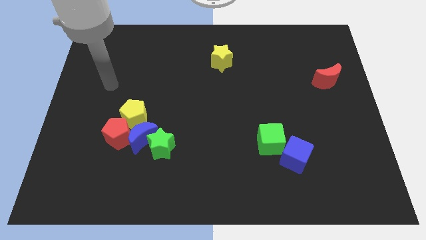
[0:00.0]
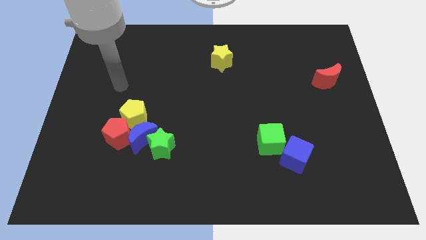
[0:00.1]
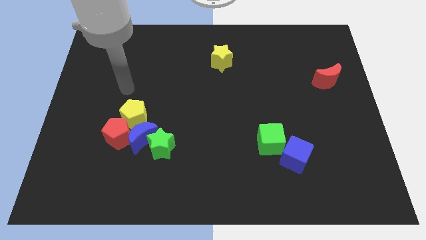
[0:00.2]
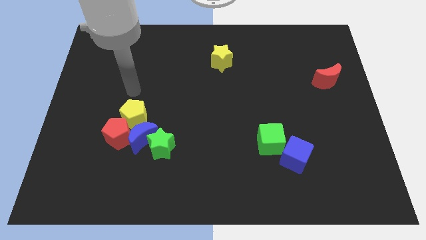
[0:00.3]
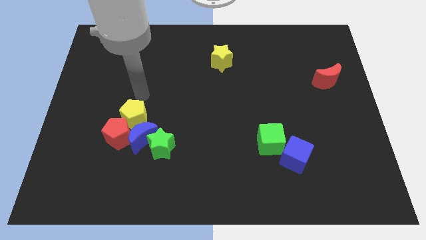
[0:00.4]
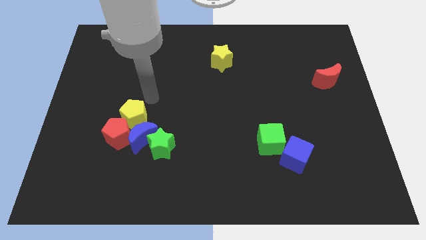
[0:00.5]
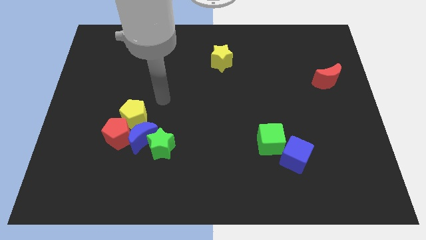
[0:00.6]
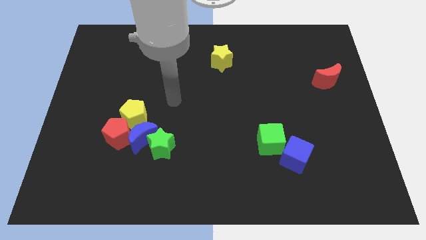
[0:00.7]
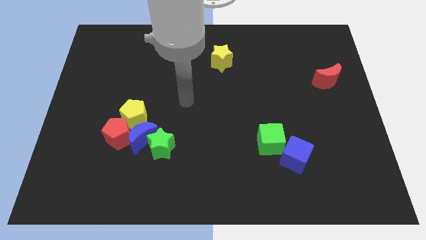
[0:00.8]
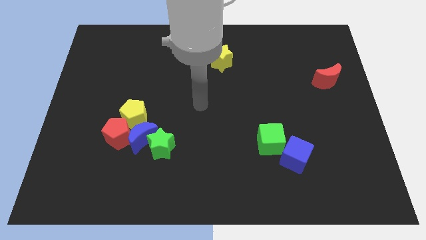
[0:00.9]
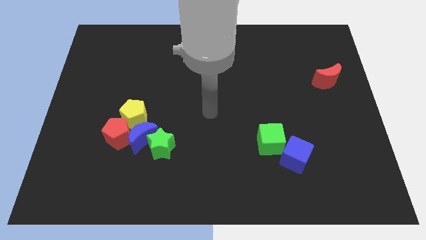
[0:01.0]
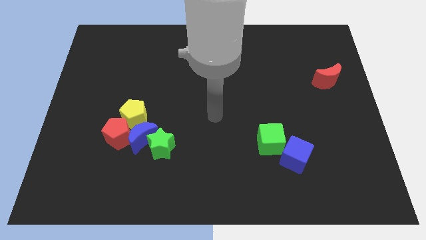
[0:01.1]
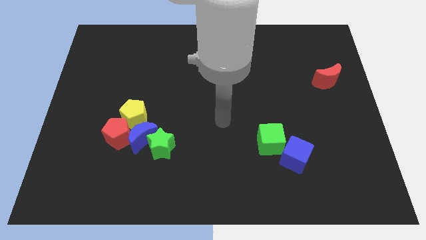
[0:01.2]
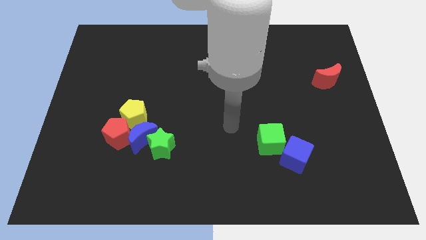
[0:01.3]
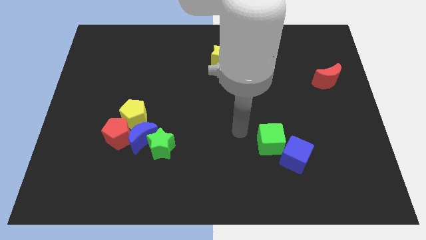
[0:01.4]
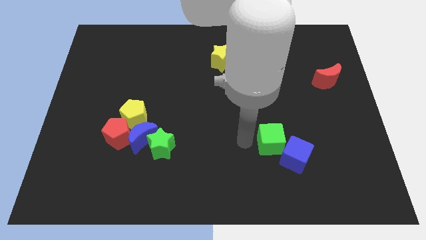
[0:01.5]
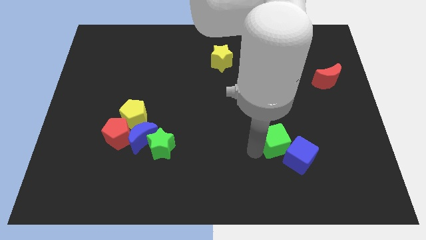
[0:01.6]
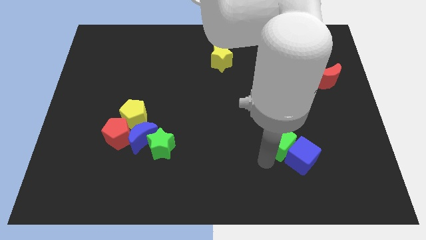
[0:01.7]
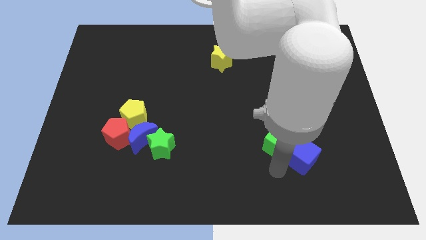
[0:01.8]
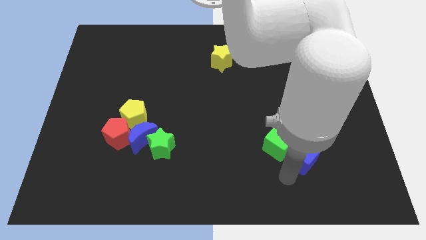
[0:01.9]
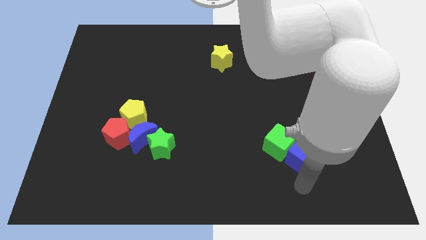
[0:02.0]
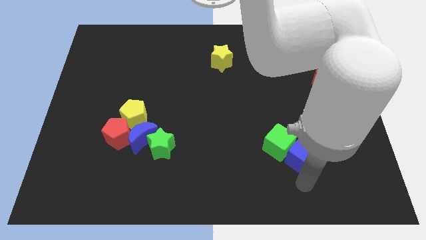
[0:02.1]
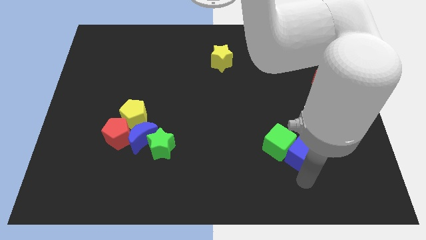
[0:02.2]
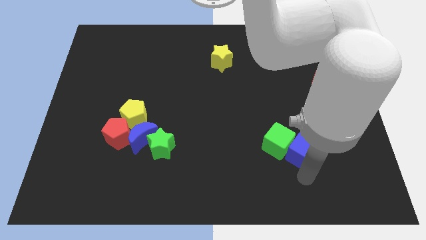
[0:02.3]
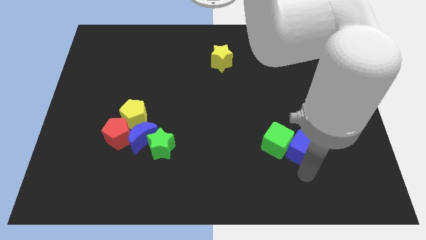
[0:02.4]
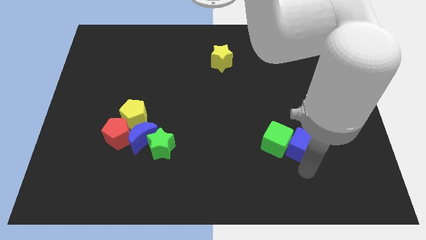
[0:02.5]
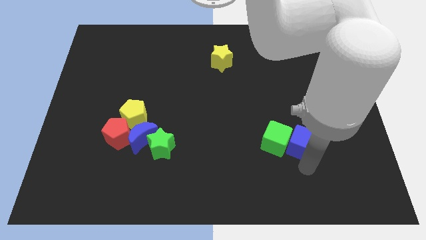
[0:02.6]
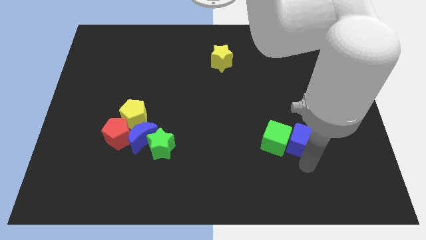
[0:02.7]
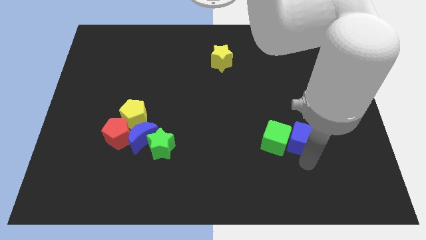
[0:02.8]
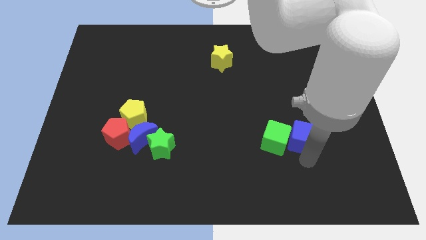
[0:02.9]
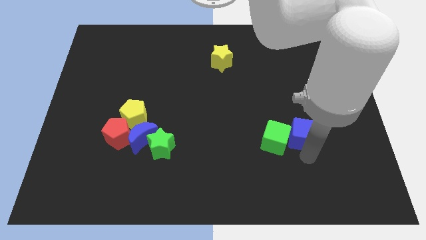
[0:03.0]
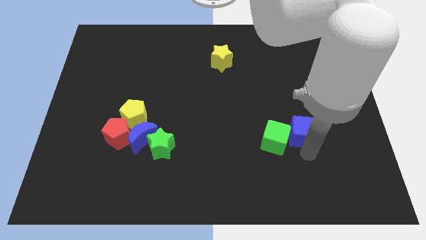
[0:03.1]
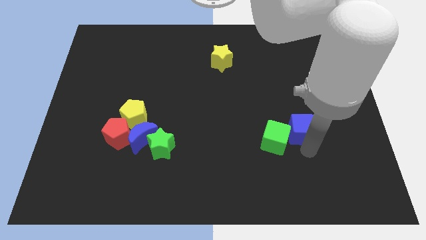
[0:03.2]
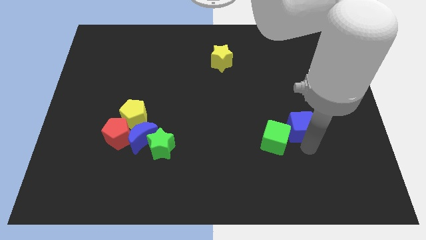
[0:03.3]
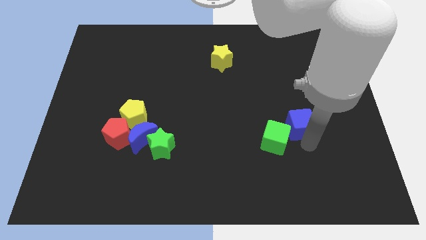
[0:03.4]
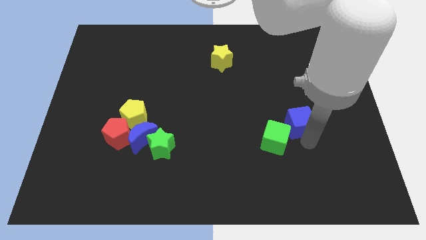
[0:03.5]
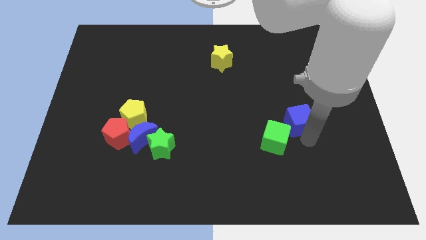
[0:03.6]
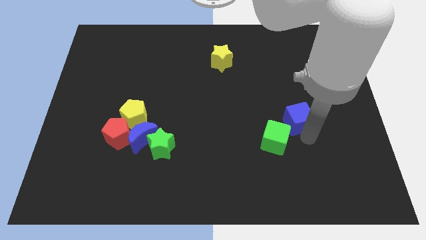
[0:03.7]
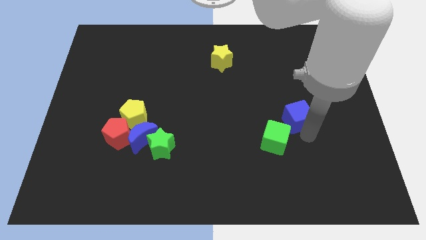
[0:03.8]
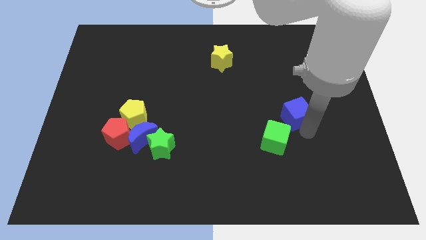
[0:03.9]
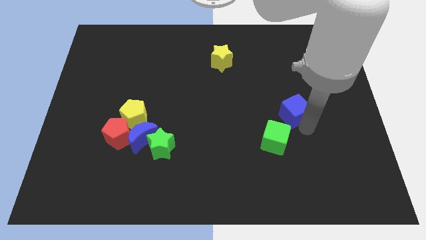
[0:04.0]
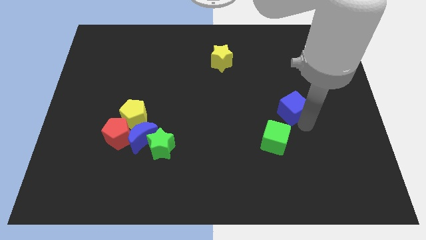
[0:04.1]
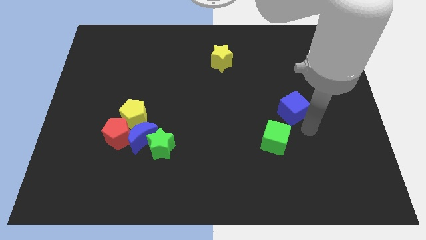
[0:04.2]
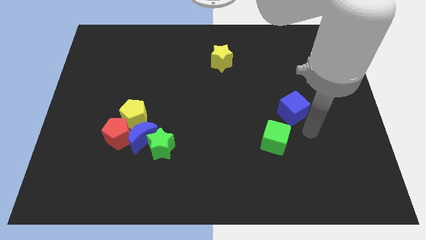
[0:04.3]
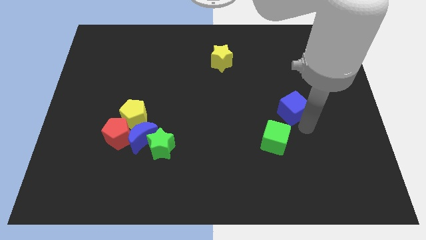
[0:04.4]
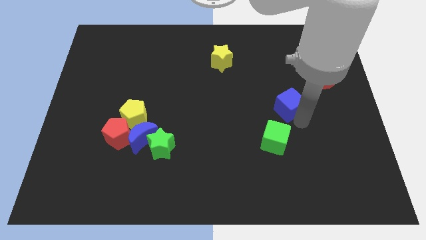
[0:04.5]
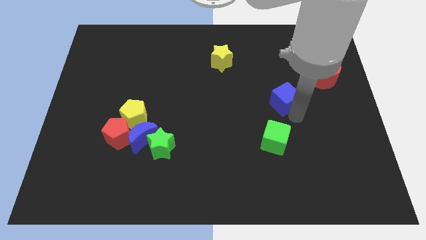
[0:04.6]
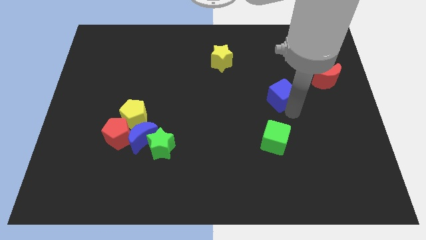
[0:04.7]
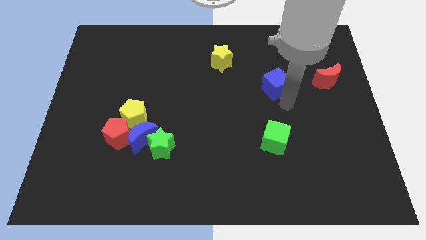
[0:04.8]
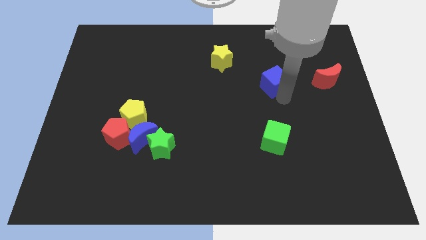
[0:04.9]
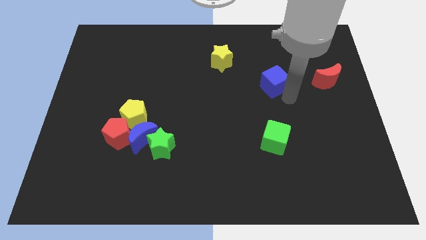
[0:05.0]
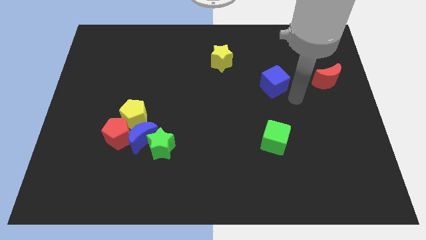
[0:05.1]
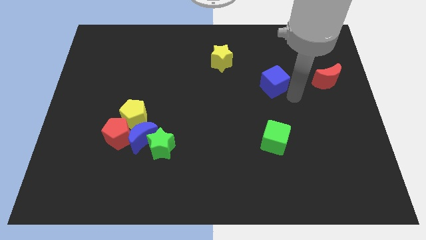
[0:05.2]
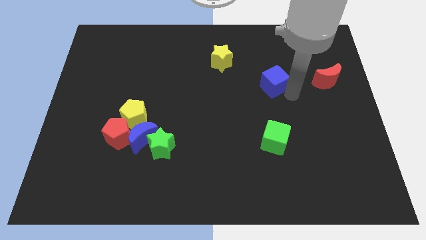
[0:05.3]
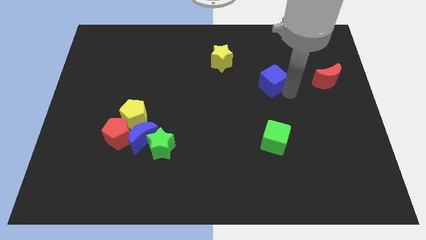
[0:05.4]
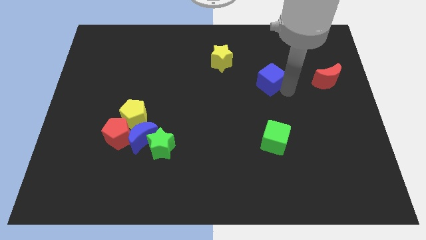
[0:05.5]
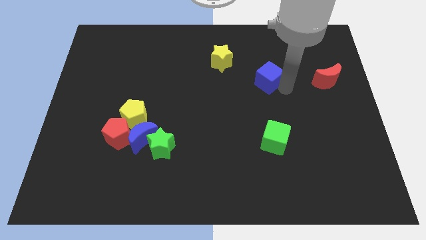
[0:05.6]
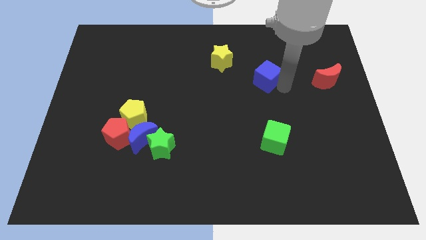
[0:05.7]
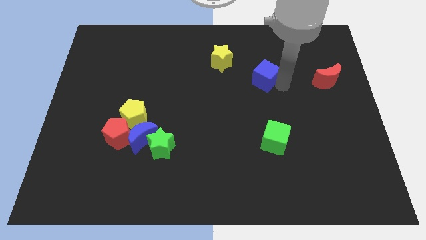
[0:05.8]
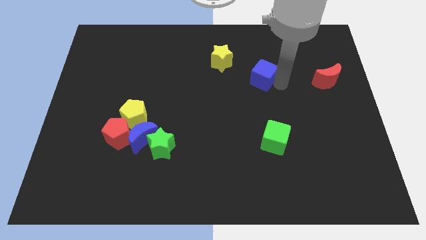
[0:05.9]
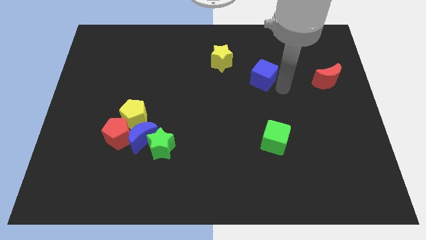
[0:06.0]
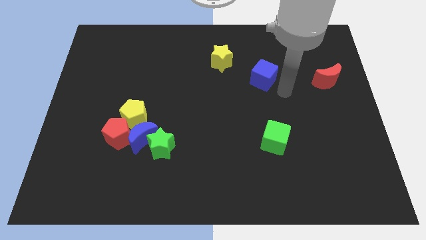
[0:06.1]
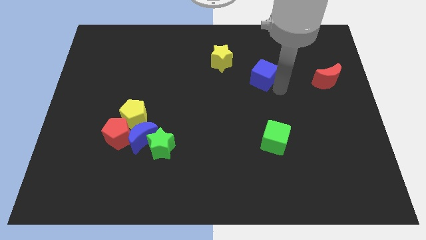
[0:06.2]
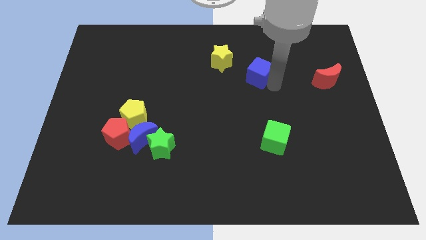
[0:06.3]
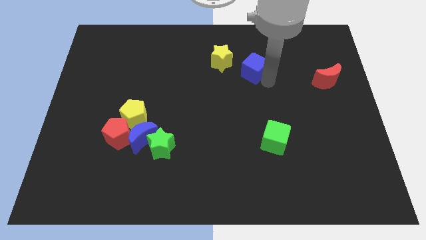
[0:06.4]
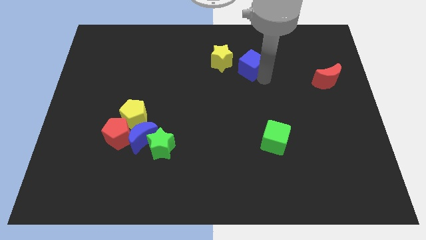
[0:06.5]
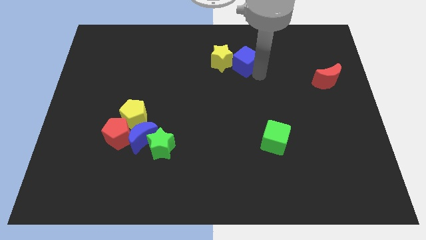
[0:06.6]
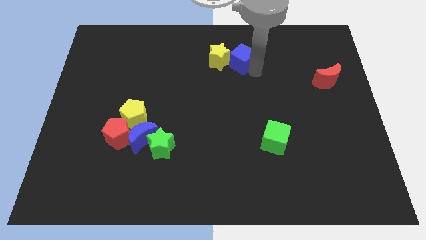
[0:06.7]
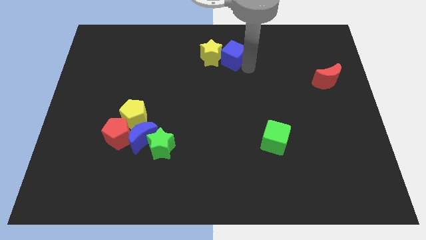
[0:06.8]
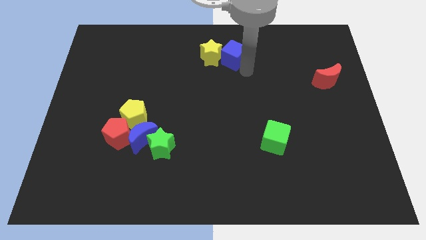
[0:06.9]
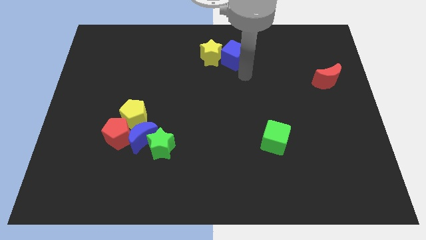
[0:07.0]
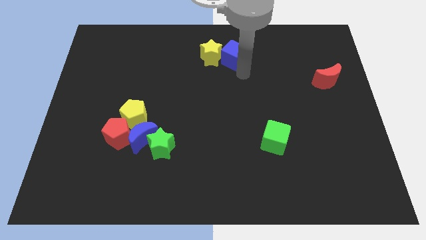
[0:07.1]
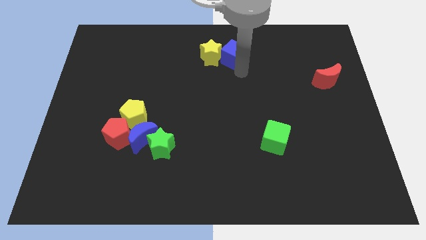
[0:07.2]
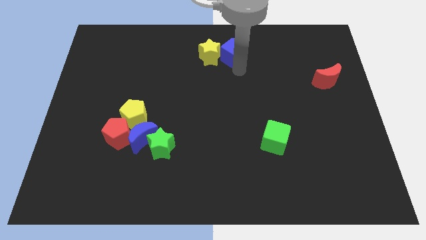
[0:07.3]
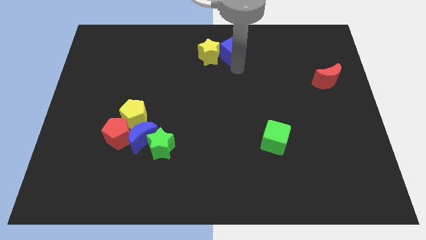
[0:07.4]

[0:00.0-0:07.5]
move the blue cube to the towards your base

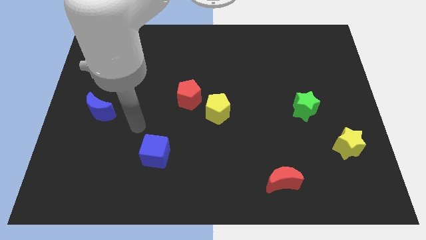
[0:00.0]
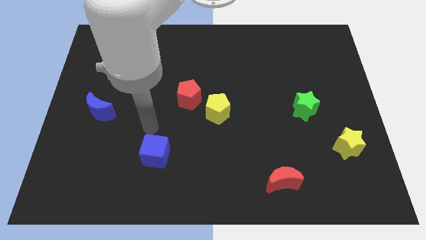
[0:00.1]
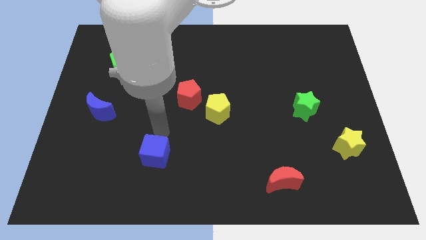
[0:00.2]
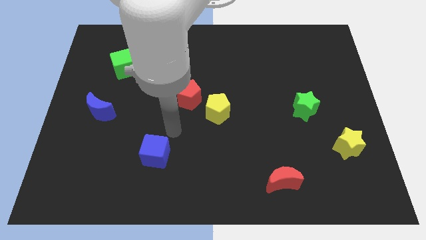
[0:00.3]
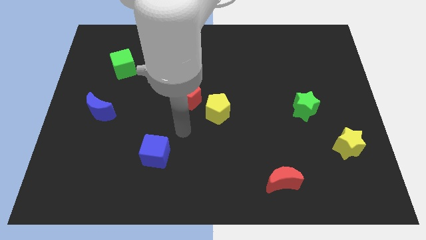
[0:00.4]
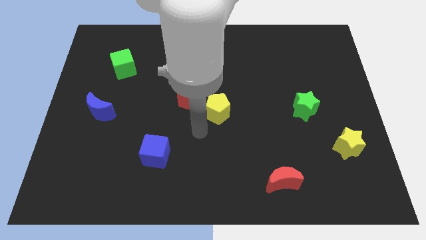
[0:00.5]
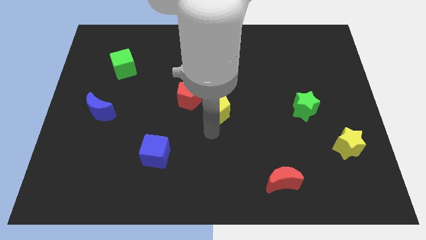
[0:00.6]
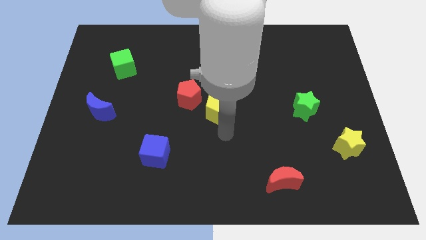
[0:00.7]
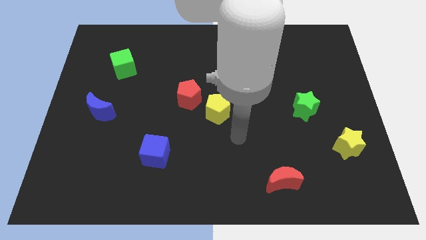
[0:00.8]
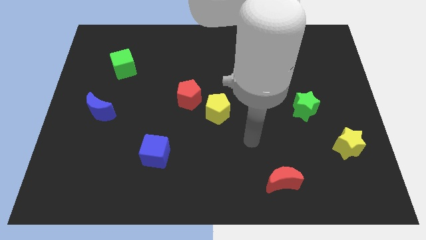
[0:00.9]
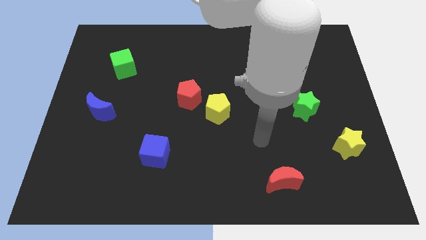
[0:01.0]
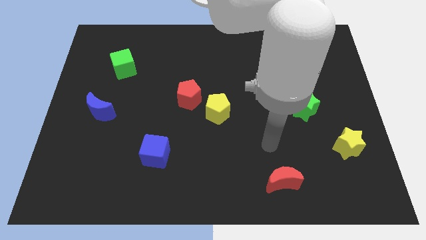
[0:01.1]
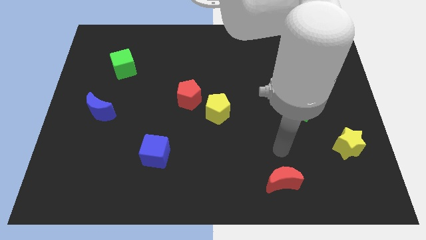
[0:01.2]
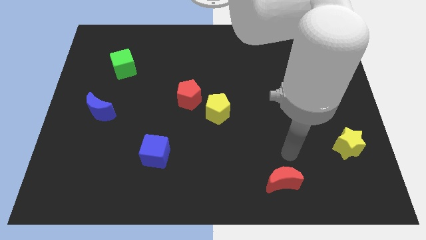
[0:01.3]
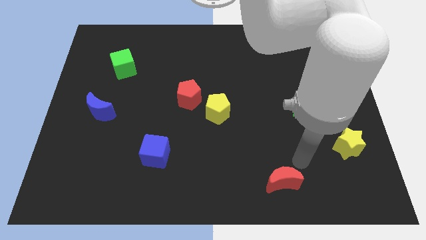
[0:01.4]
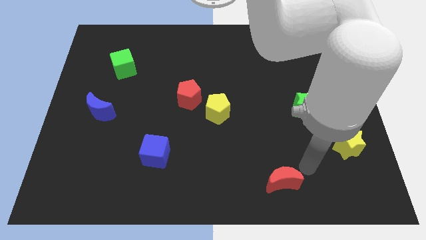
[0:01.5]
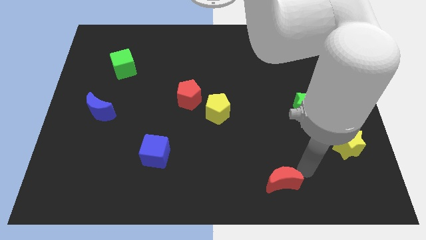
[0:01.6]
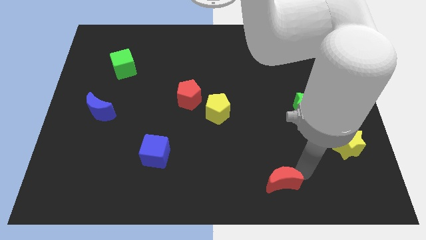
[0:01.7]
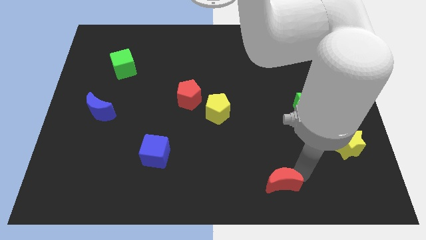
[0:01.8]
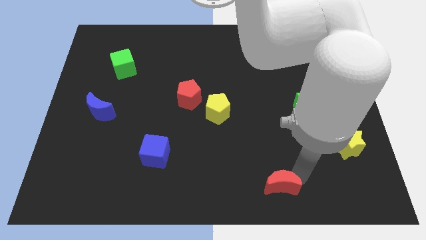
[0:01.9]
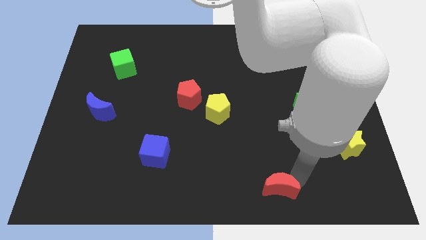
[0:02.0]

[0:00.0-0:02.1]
push the red moon to the bottom side
